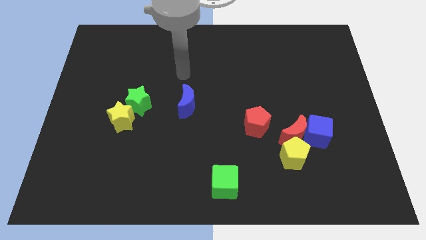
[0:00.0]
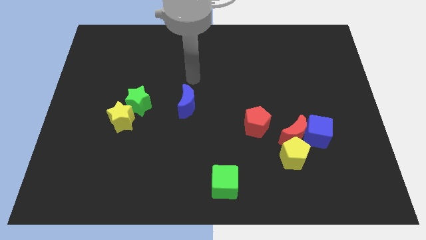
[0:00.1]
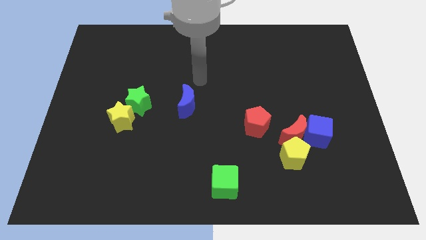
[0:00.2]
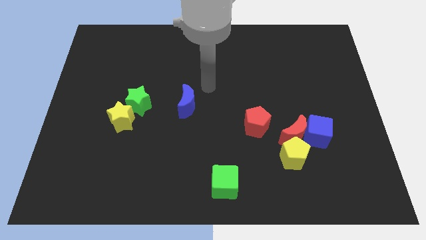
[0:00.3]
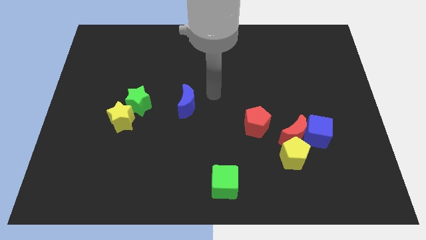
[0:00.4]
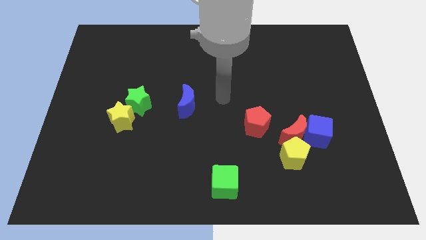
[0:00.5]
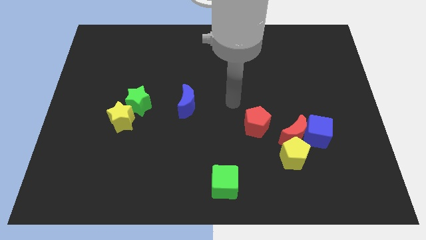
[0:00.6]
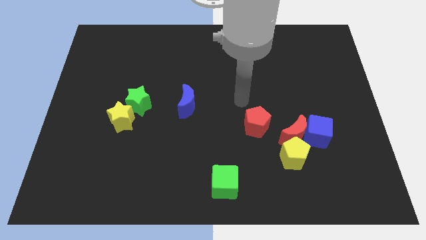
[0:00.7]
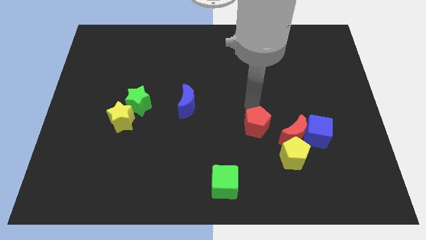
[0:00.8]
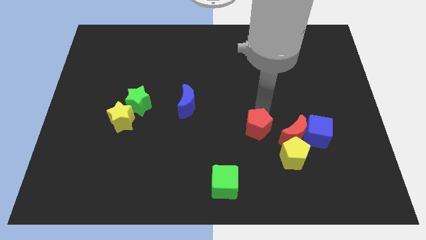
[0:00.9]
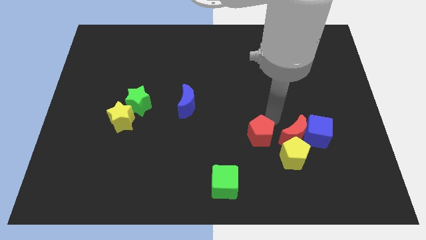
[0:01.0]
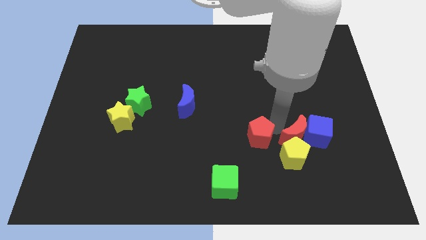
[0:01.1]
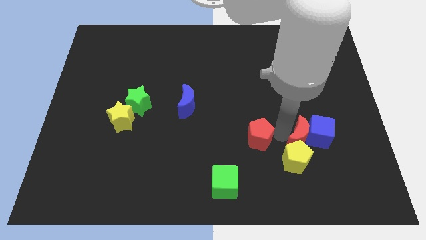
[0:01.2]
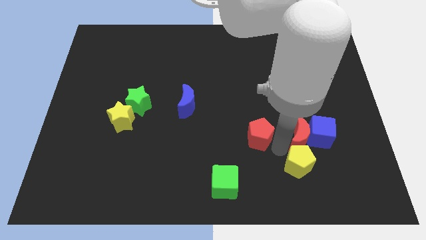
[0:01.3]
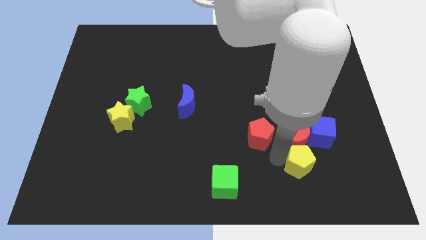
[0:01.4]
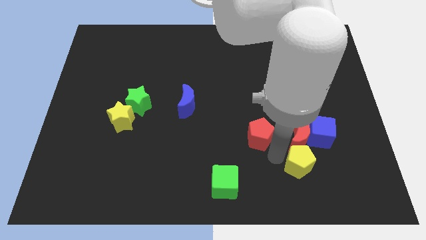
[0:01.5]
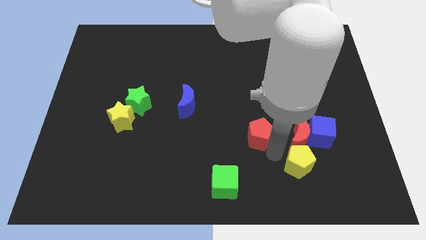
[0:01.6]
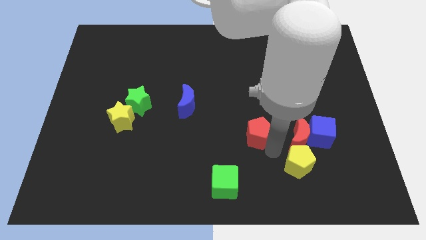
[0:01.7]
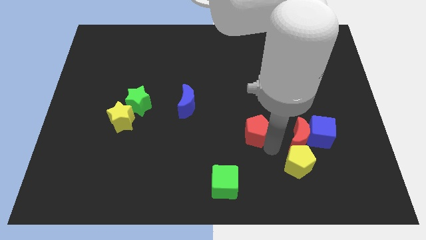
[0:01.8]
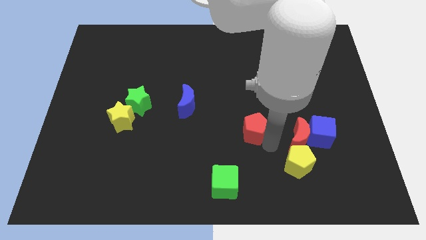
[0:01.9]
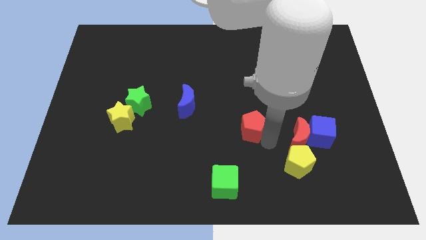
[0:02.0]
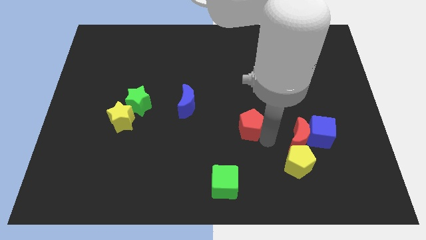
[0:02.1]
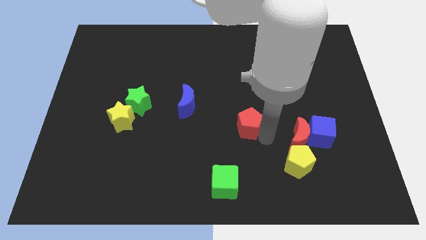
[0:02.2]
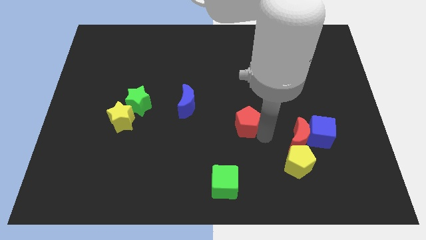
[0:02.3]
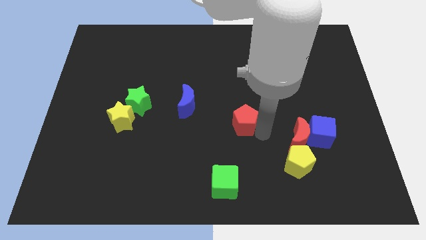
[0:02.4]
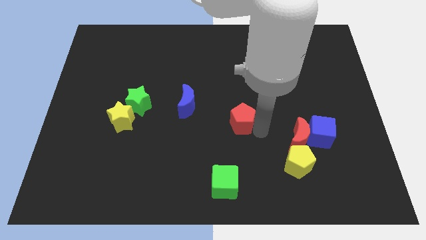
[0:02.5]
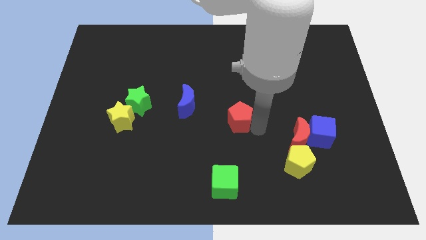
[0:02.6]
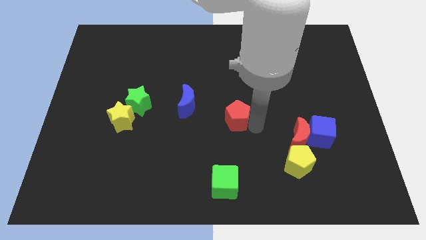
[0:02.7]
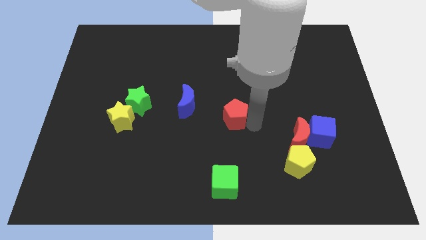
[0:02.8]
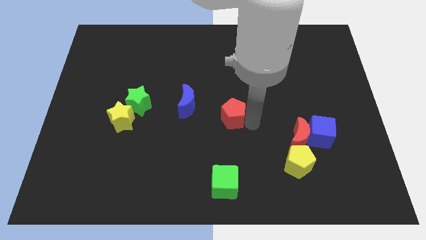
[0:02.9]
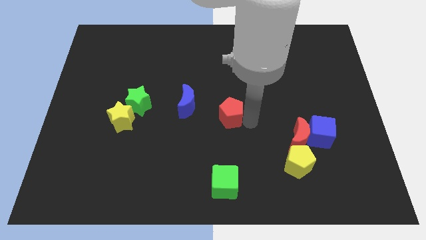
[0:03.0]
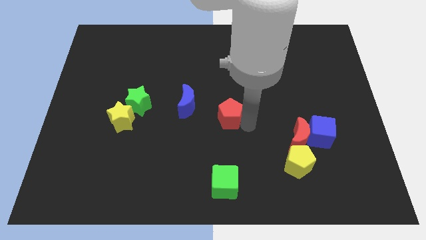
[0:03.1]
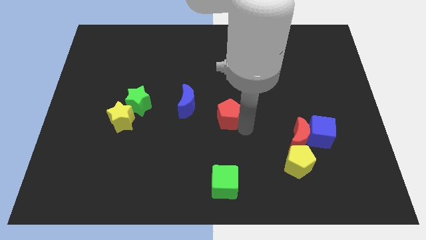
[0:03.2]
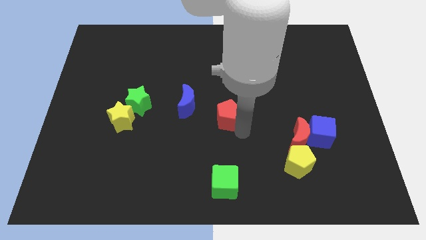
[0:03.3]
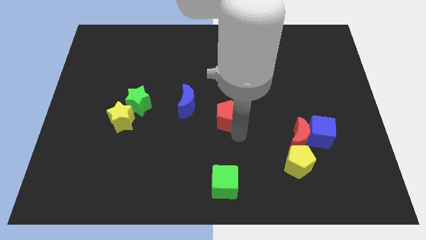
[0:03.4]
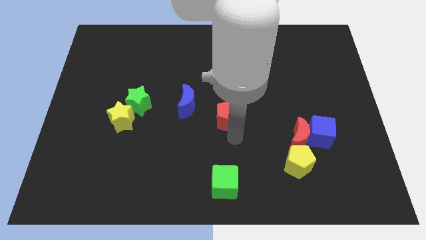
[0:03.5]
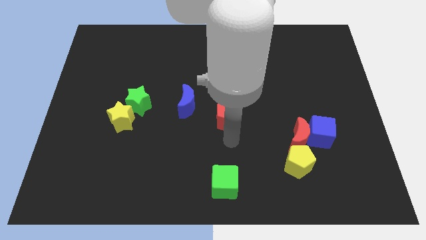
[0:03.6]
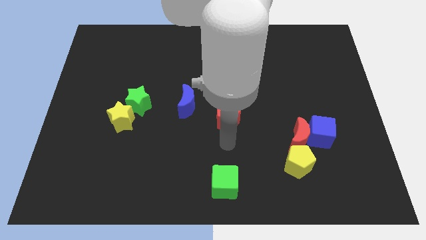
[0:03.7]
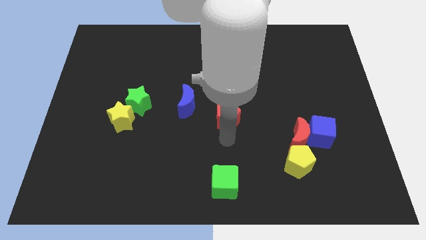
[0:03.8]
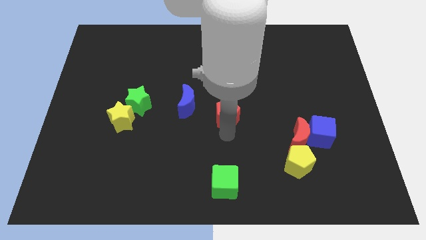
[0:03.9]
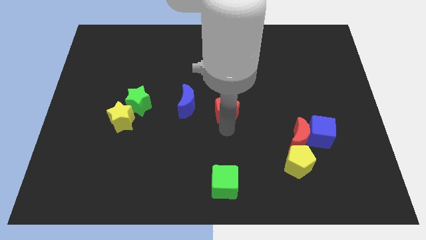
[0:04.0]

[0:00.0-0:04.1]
slide the red pentagon somewhat up and left diagonally

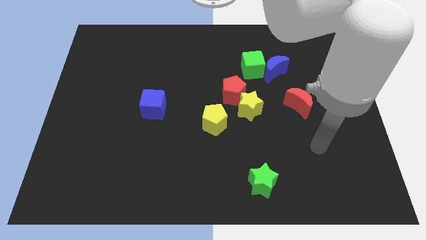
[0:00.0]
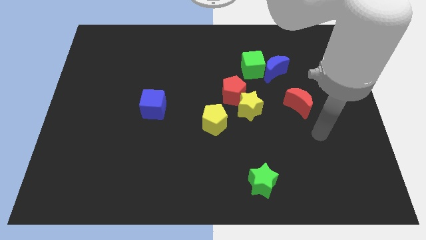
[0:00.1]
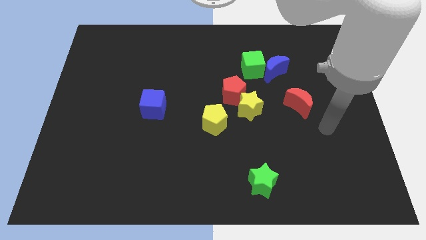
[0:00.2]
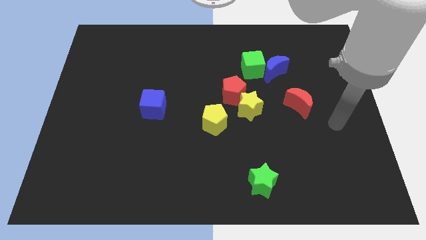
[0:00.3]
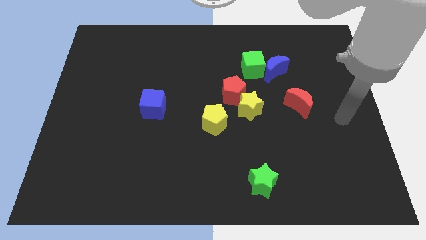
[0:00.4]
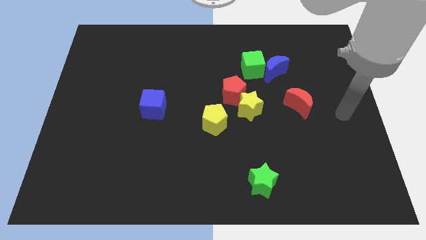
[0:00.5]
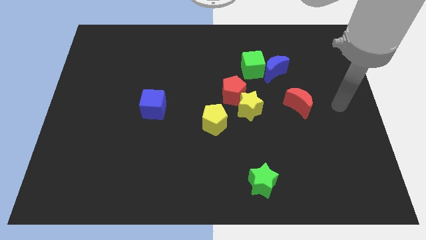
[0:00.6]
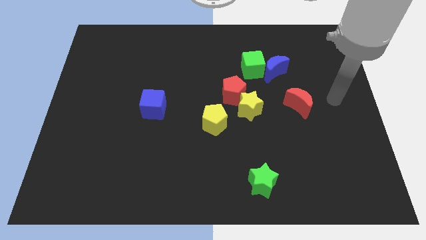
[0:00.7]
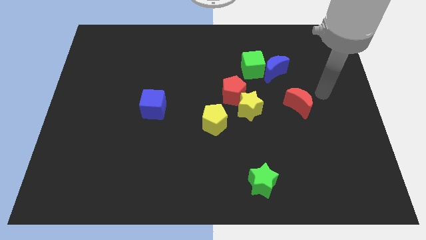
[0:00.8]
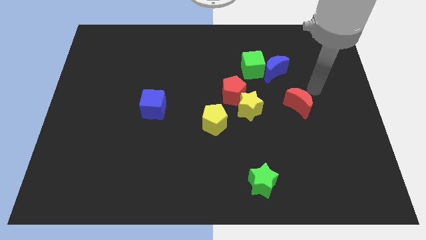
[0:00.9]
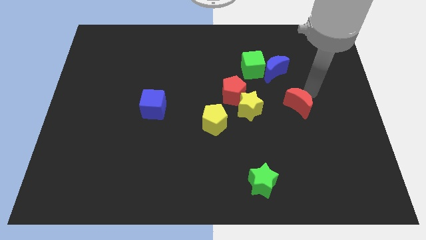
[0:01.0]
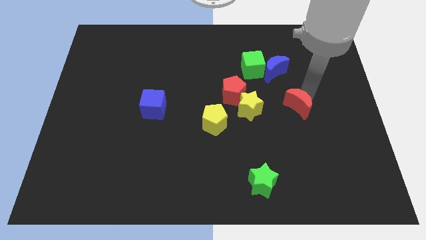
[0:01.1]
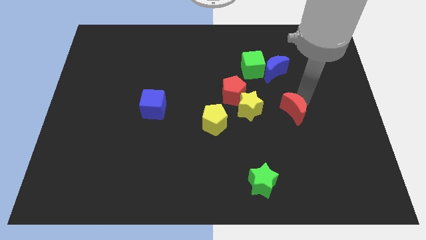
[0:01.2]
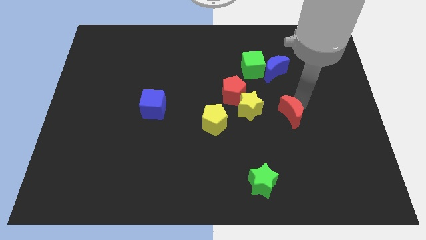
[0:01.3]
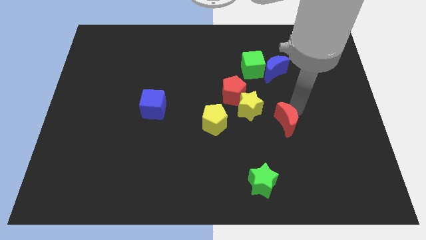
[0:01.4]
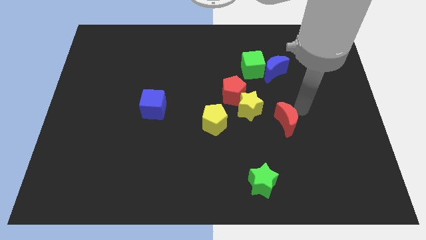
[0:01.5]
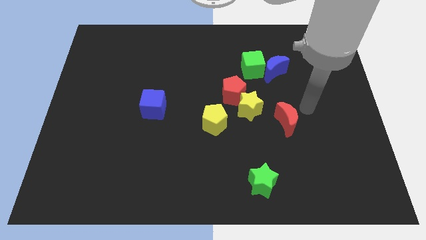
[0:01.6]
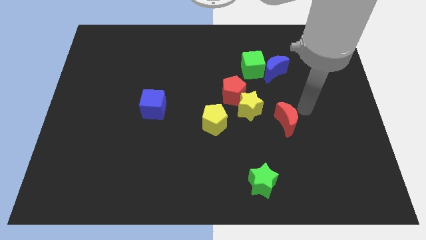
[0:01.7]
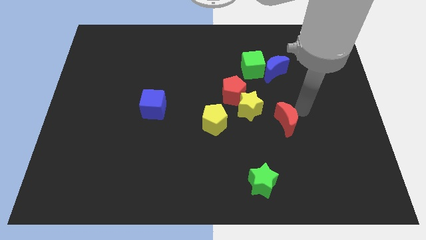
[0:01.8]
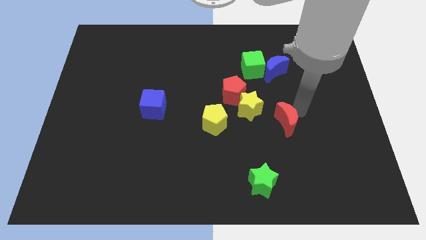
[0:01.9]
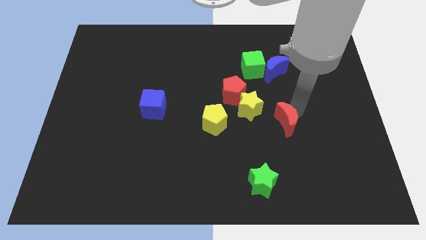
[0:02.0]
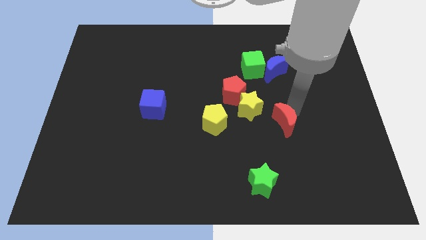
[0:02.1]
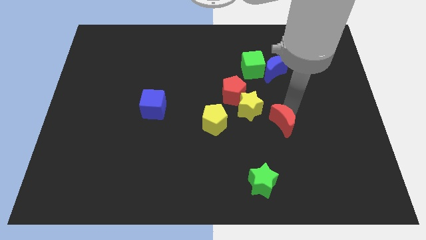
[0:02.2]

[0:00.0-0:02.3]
slide the red moon slightly down and then to the left

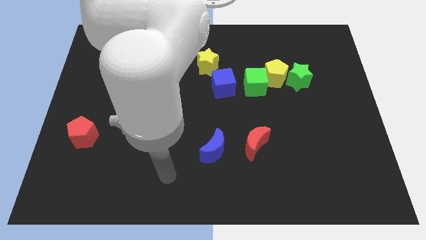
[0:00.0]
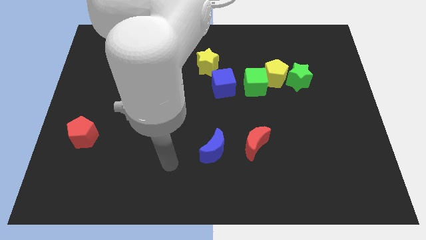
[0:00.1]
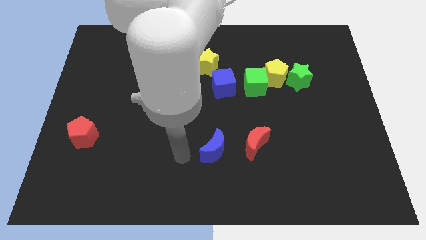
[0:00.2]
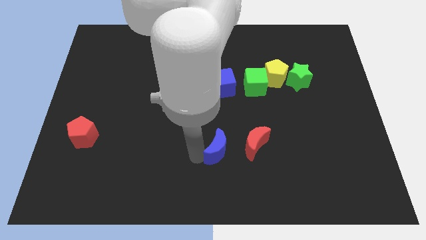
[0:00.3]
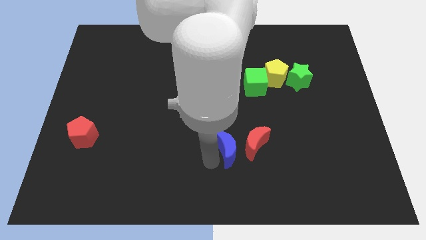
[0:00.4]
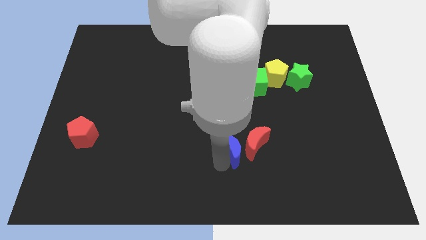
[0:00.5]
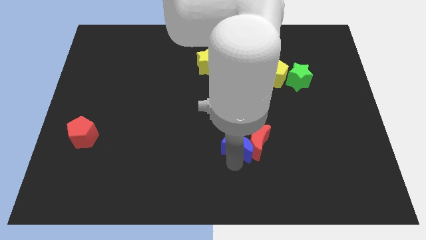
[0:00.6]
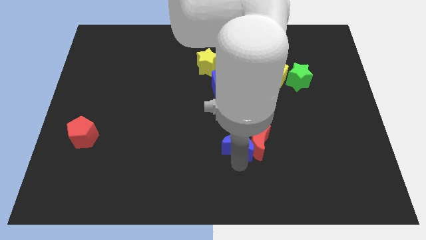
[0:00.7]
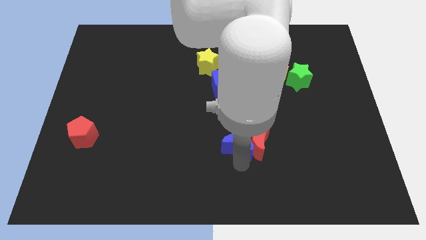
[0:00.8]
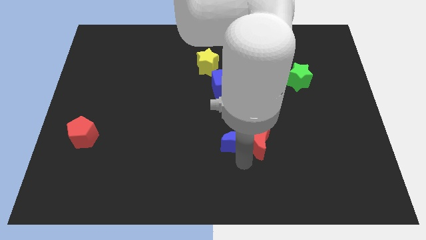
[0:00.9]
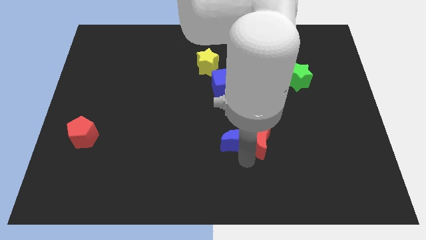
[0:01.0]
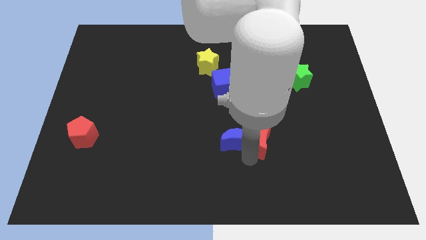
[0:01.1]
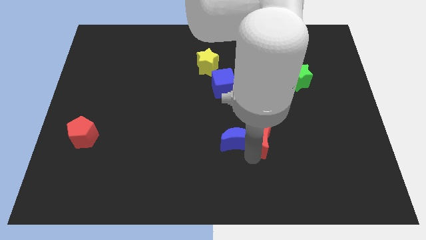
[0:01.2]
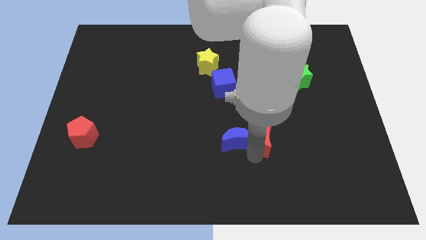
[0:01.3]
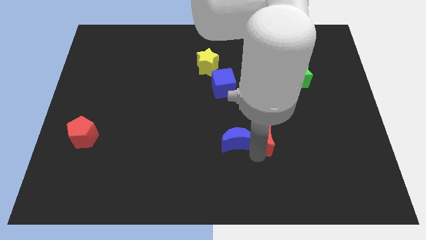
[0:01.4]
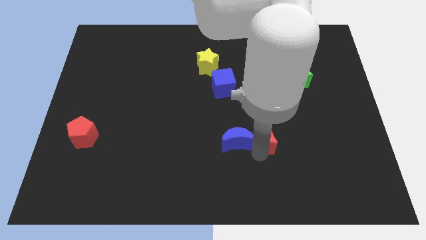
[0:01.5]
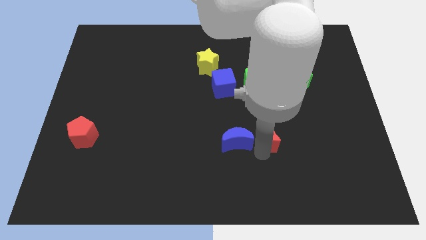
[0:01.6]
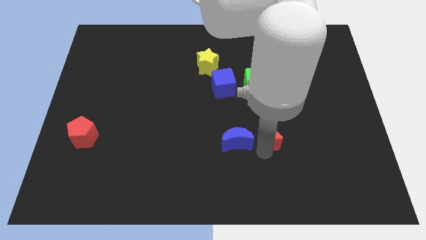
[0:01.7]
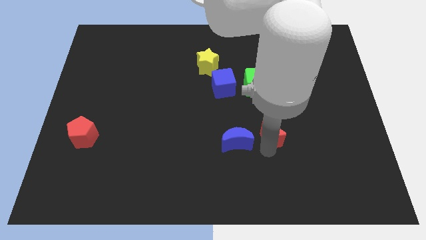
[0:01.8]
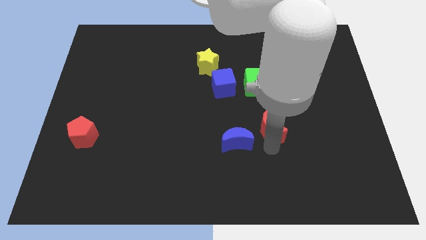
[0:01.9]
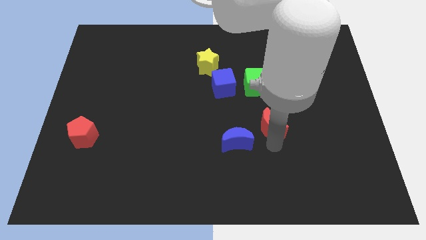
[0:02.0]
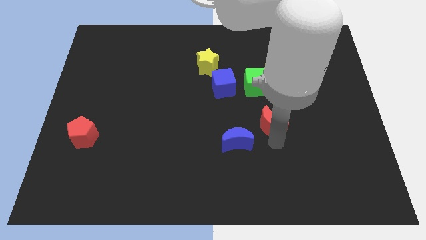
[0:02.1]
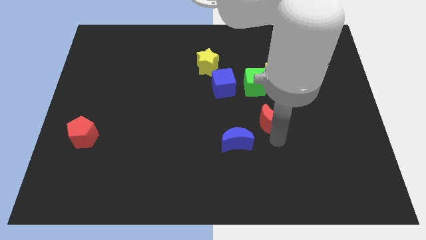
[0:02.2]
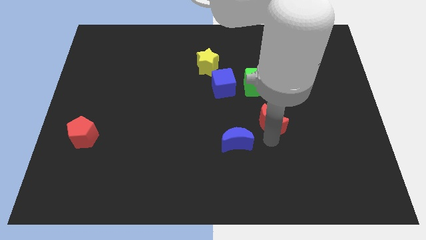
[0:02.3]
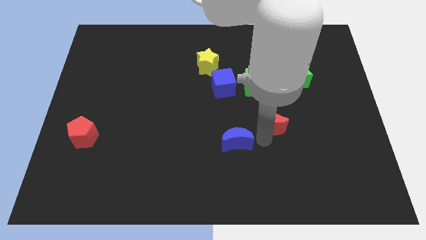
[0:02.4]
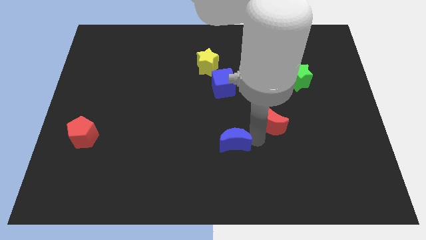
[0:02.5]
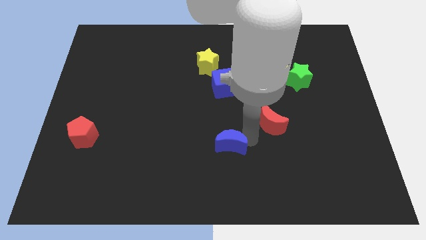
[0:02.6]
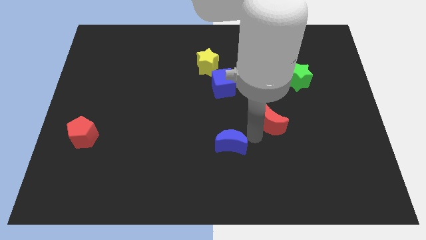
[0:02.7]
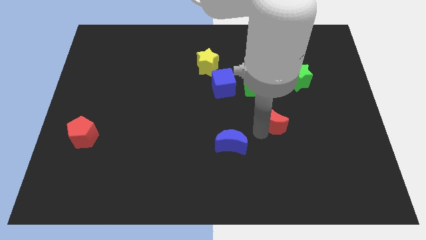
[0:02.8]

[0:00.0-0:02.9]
slide the red moon a little bit diagonally up and to the right
